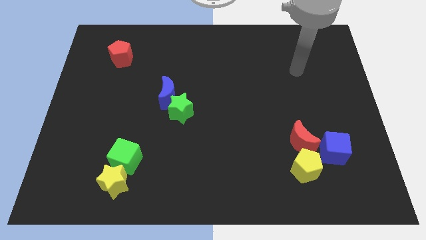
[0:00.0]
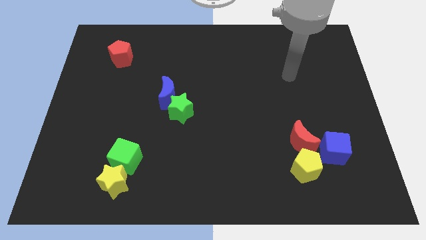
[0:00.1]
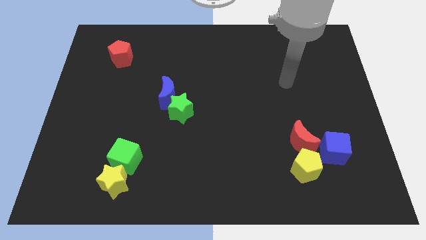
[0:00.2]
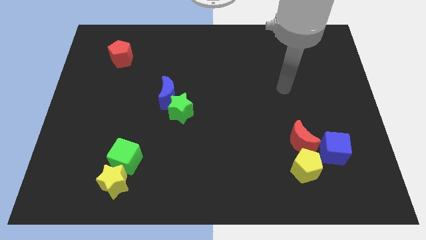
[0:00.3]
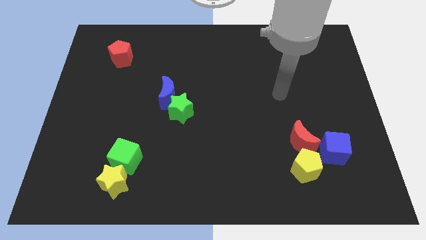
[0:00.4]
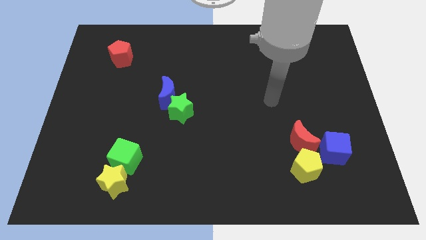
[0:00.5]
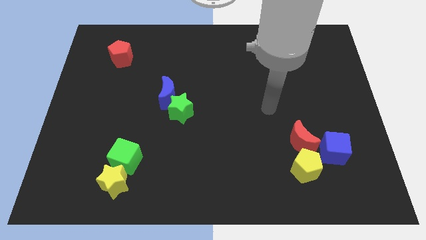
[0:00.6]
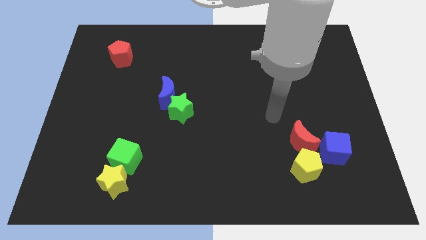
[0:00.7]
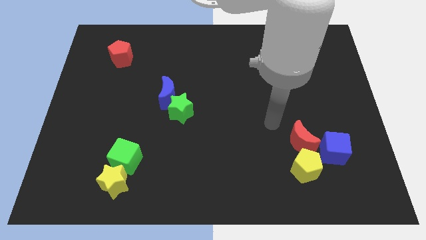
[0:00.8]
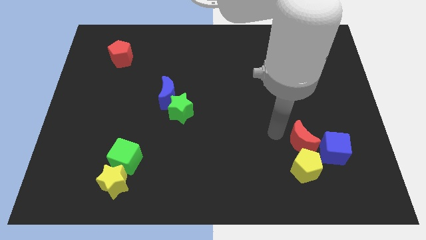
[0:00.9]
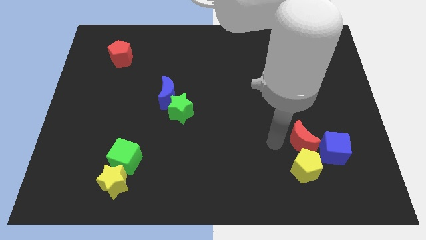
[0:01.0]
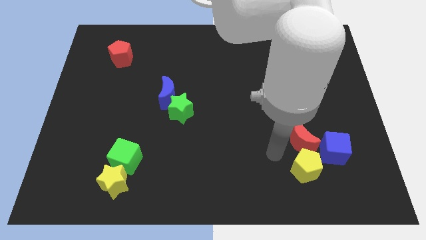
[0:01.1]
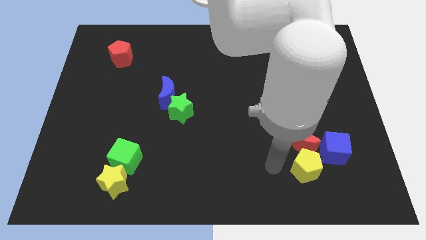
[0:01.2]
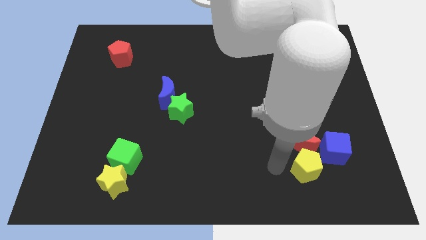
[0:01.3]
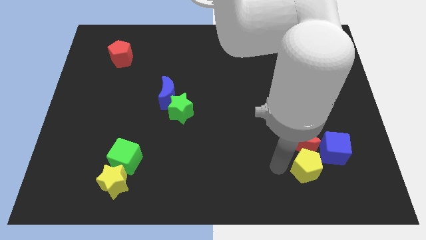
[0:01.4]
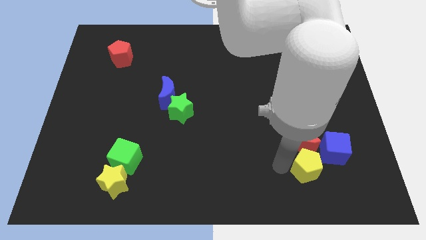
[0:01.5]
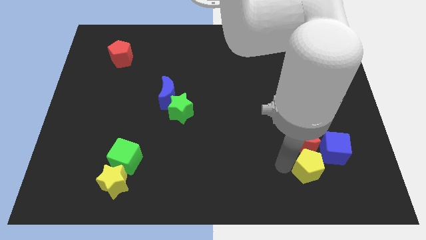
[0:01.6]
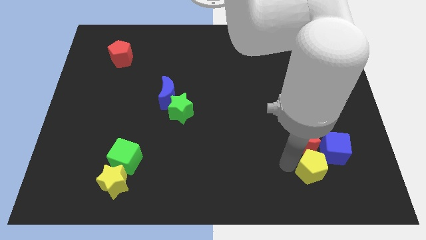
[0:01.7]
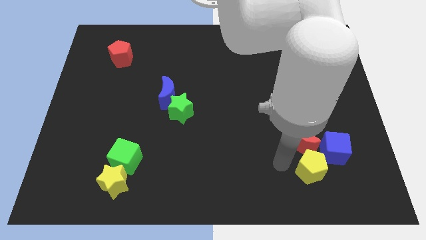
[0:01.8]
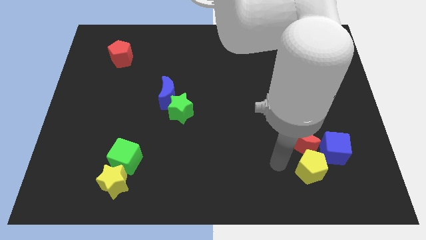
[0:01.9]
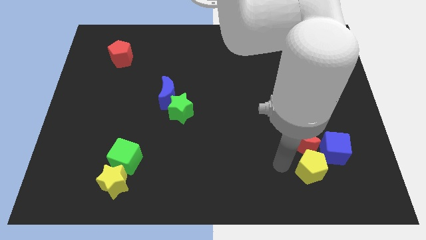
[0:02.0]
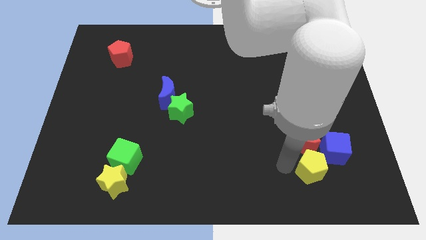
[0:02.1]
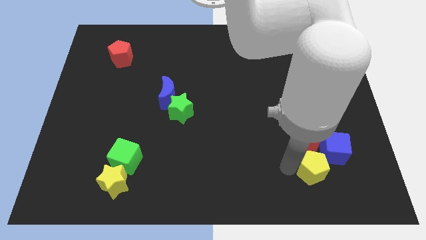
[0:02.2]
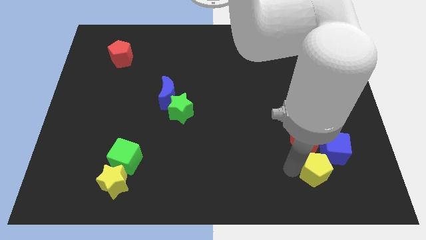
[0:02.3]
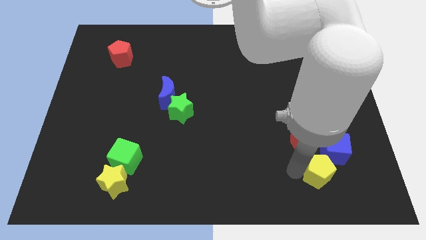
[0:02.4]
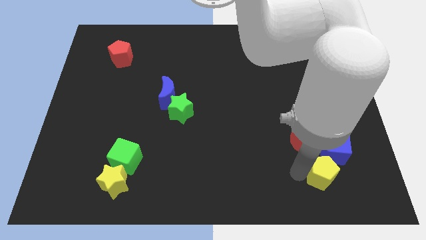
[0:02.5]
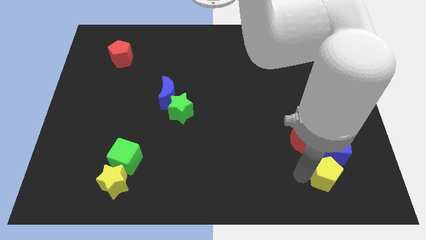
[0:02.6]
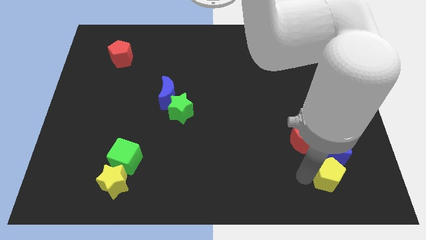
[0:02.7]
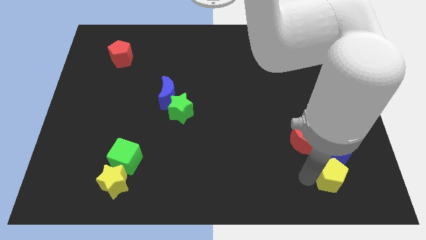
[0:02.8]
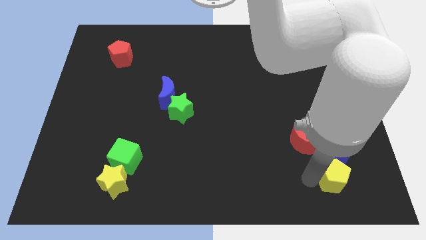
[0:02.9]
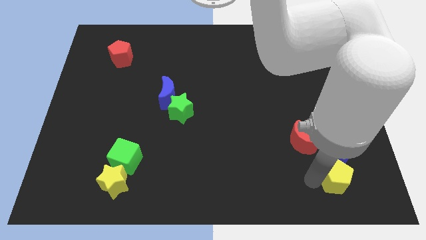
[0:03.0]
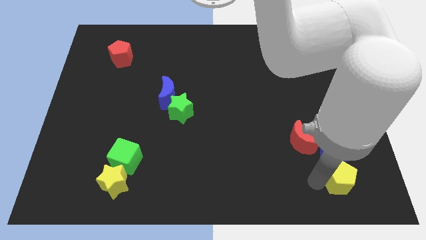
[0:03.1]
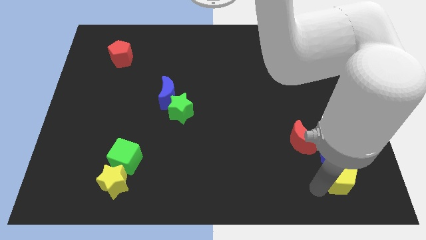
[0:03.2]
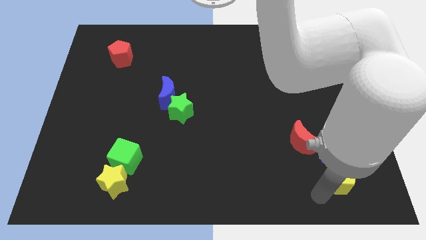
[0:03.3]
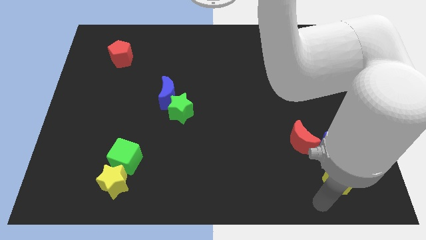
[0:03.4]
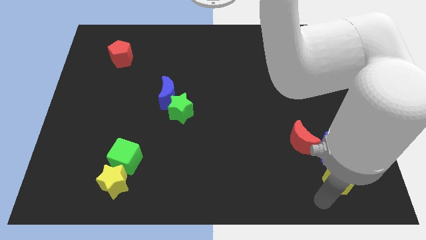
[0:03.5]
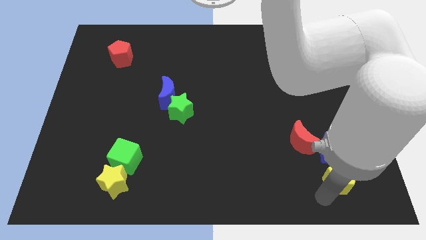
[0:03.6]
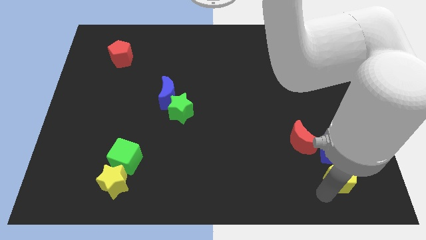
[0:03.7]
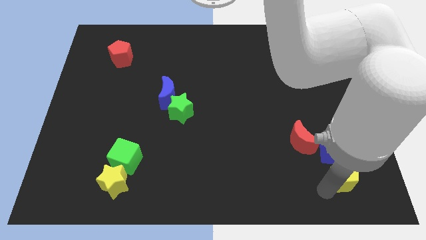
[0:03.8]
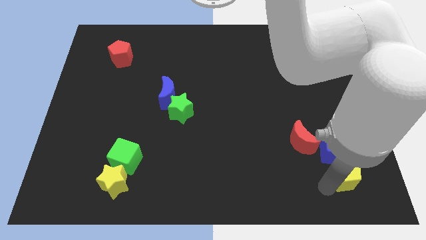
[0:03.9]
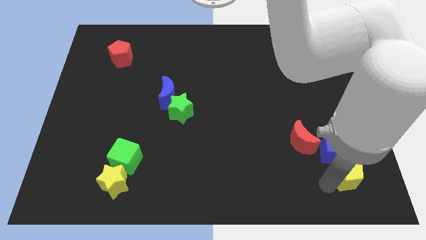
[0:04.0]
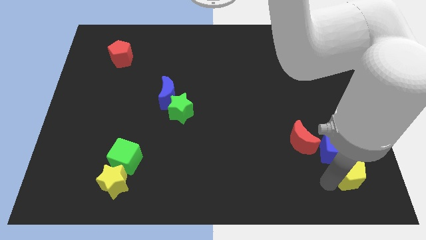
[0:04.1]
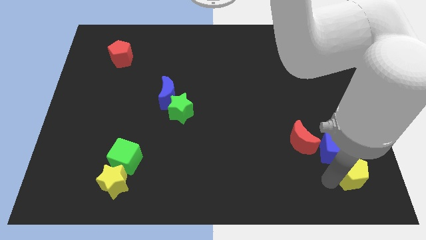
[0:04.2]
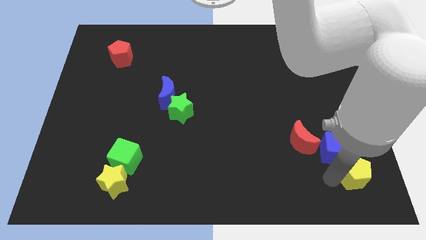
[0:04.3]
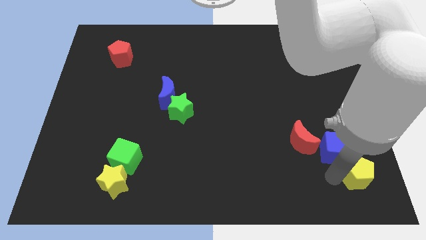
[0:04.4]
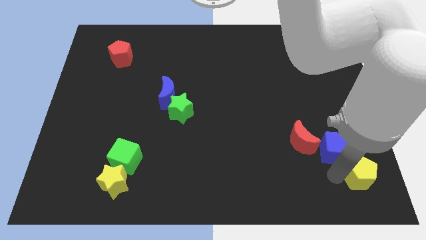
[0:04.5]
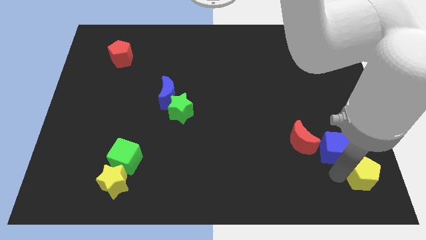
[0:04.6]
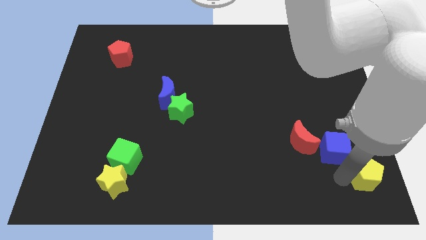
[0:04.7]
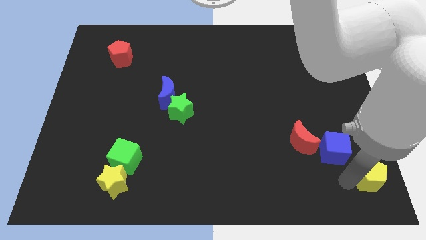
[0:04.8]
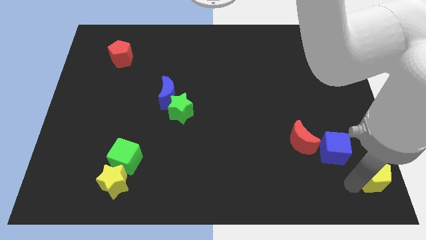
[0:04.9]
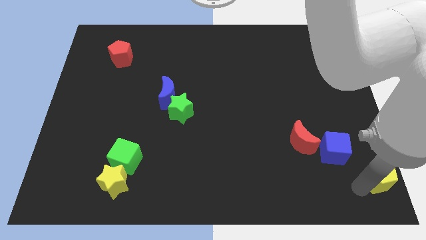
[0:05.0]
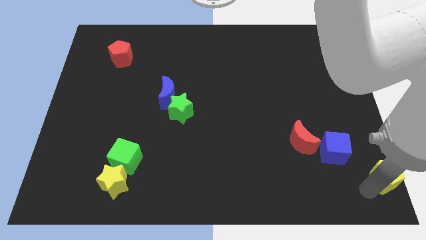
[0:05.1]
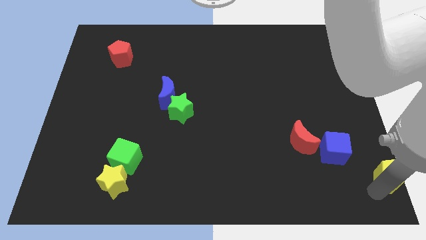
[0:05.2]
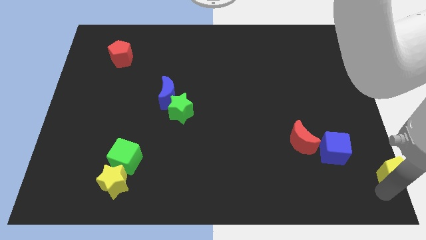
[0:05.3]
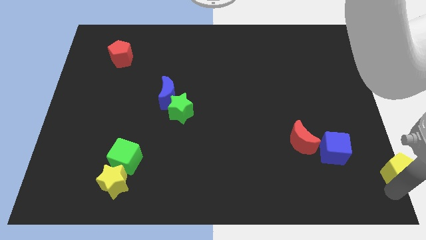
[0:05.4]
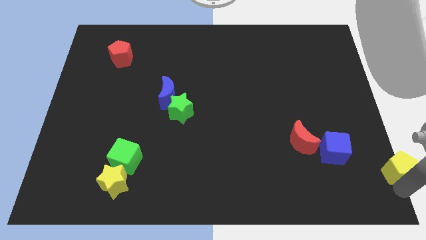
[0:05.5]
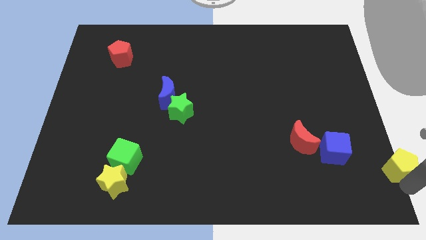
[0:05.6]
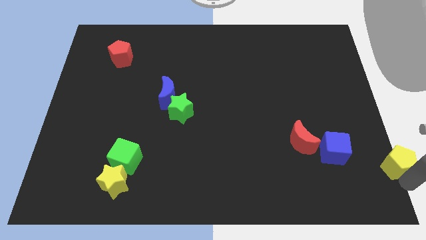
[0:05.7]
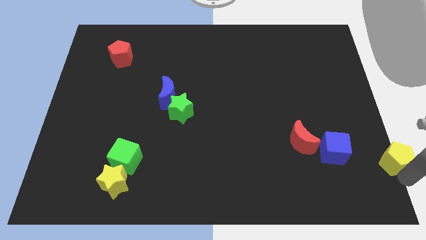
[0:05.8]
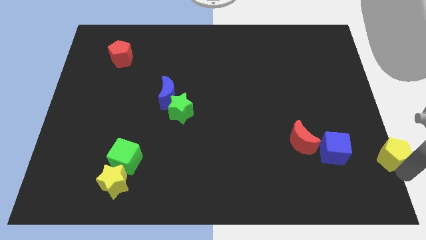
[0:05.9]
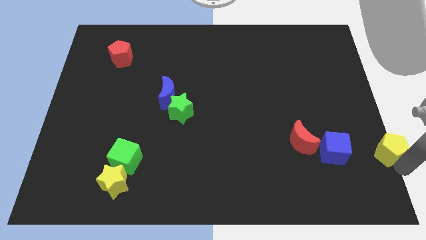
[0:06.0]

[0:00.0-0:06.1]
move the yellow pentagon to the right side
